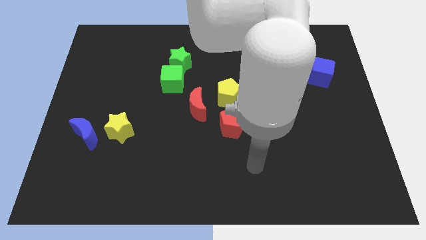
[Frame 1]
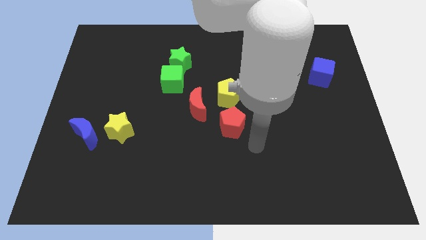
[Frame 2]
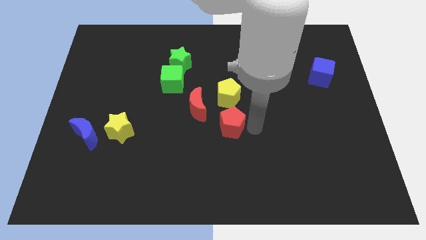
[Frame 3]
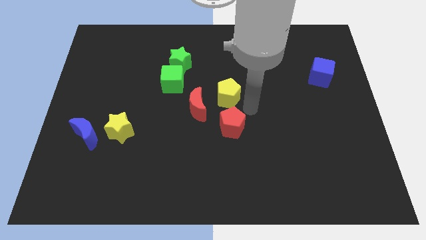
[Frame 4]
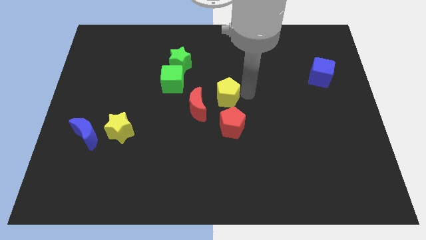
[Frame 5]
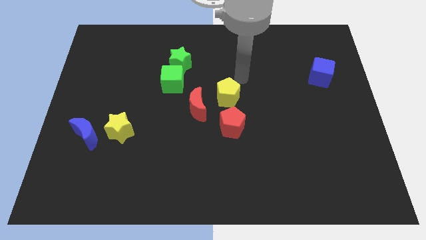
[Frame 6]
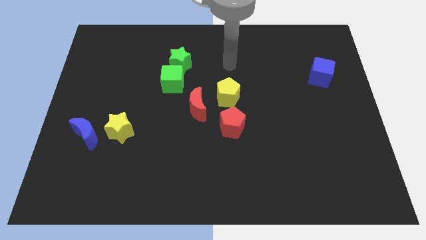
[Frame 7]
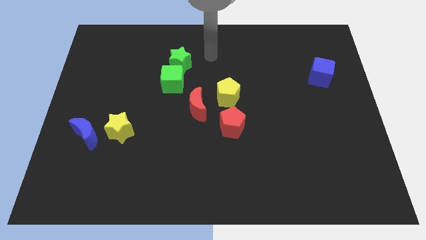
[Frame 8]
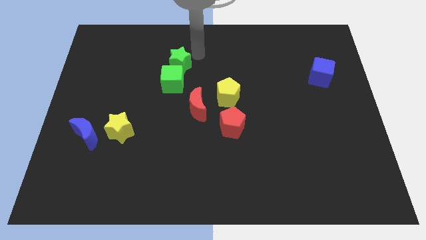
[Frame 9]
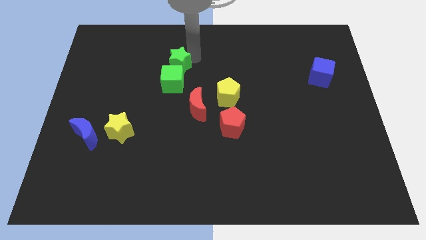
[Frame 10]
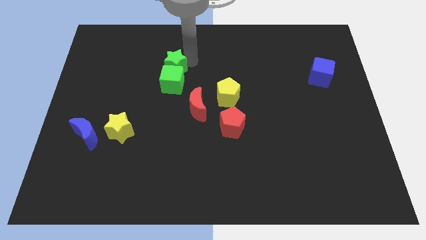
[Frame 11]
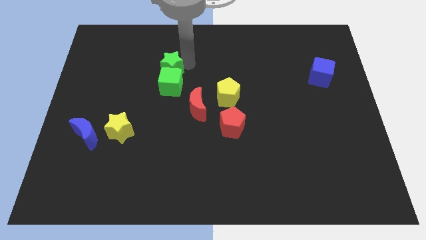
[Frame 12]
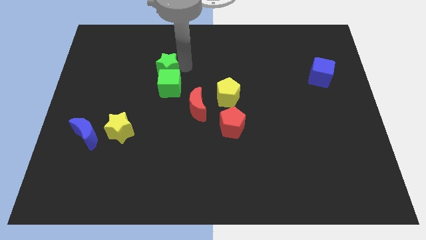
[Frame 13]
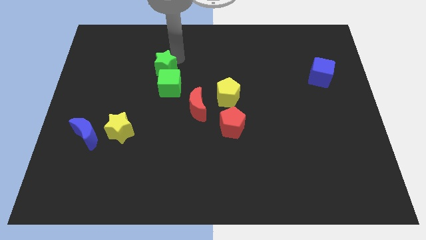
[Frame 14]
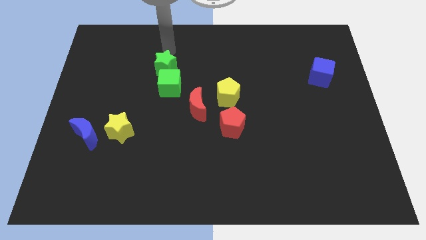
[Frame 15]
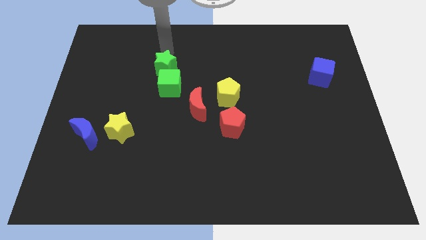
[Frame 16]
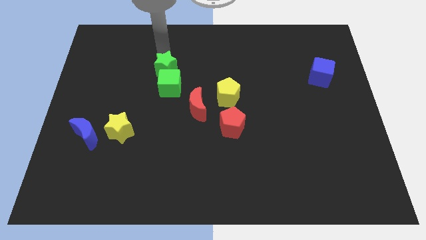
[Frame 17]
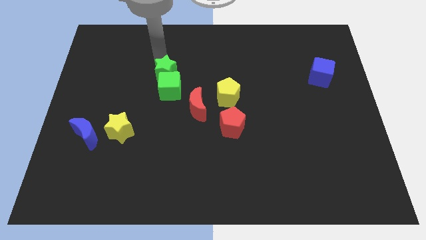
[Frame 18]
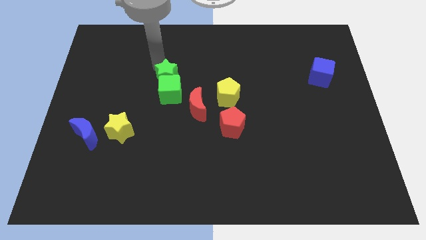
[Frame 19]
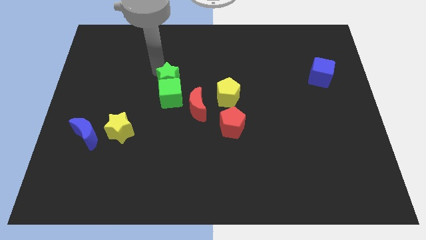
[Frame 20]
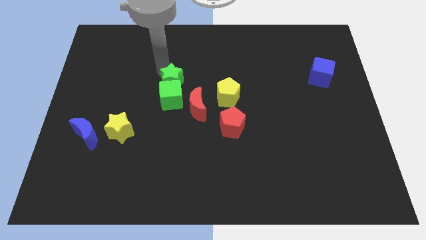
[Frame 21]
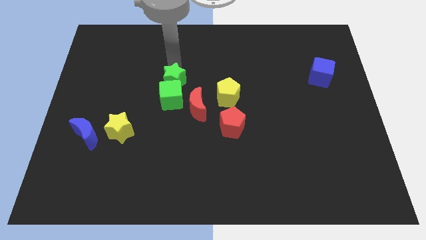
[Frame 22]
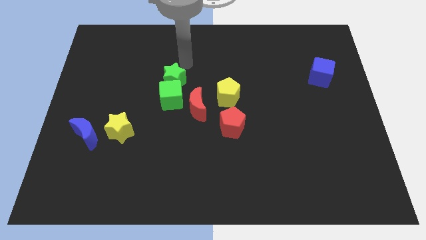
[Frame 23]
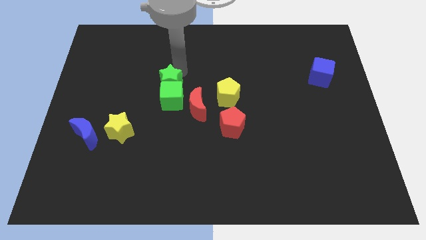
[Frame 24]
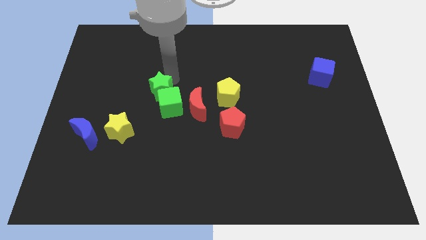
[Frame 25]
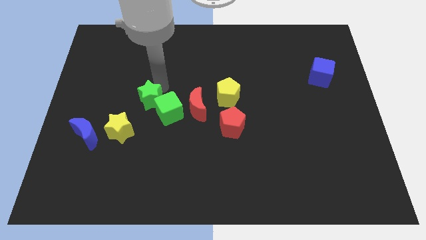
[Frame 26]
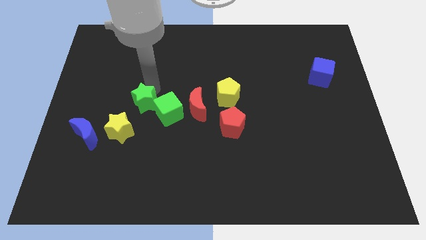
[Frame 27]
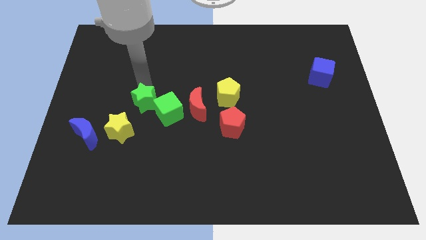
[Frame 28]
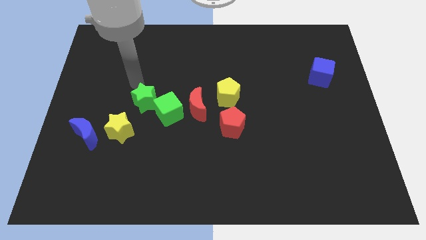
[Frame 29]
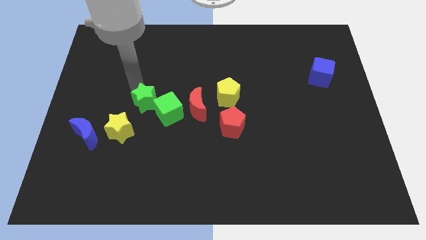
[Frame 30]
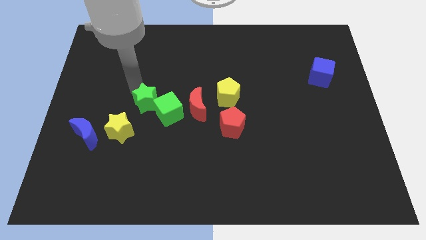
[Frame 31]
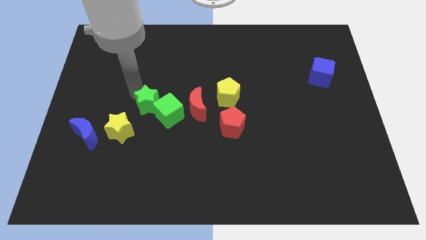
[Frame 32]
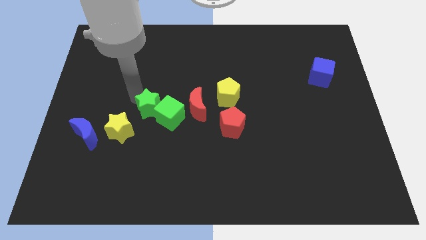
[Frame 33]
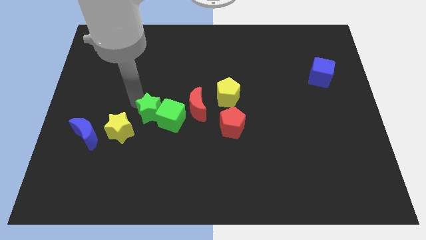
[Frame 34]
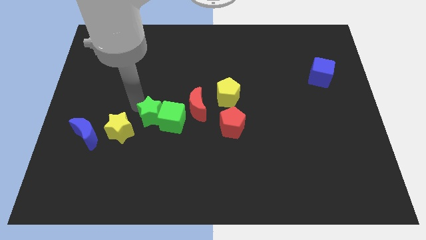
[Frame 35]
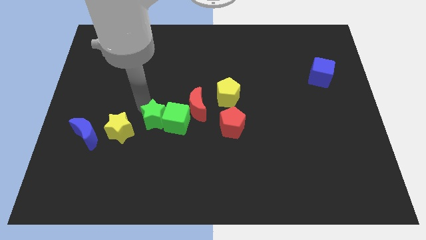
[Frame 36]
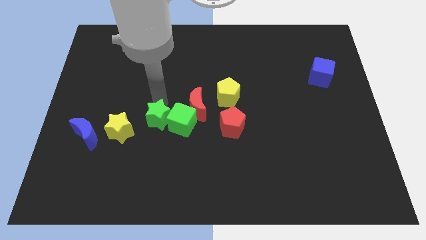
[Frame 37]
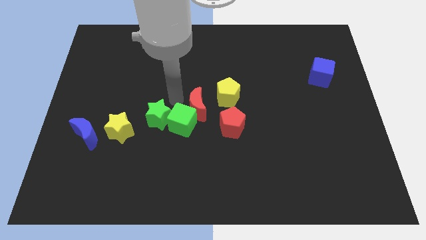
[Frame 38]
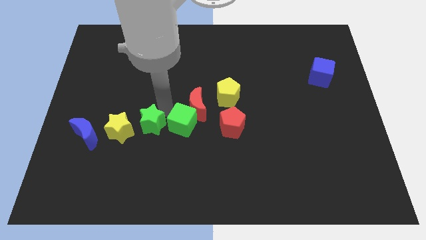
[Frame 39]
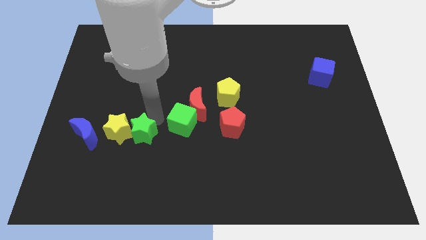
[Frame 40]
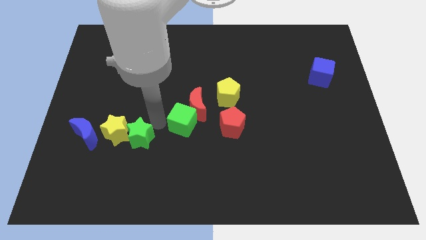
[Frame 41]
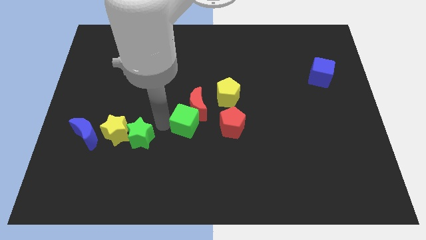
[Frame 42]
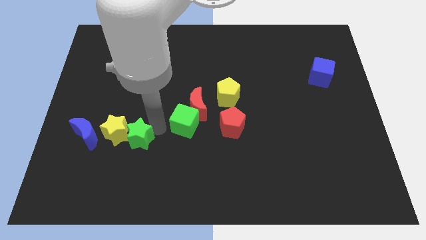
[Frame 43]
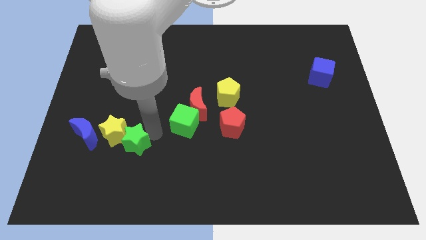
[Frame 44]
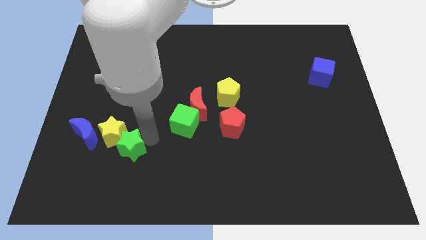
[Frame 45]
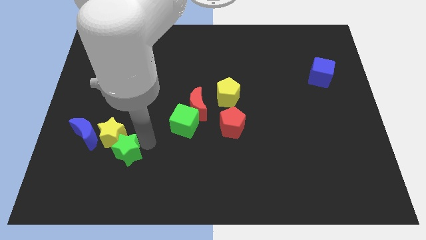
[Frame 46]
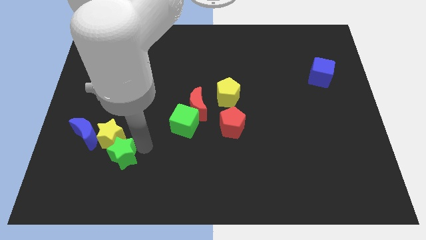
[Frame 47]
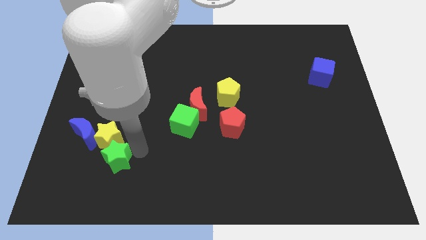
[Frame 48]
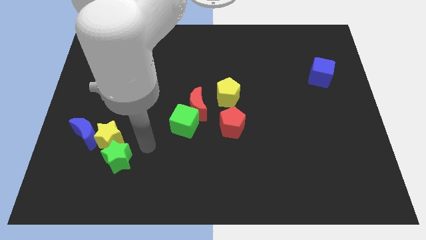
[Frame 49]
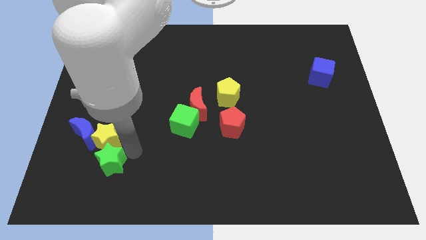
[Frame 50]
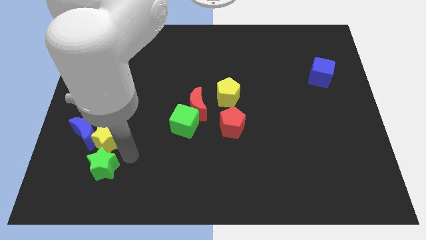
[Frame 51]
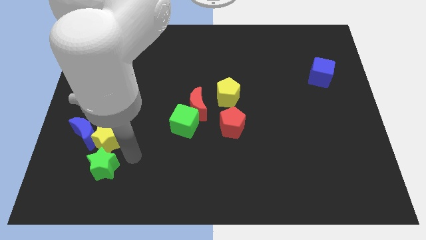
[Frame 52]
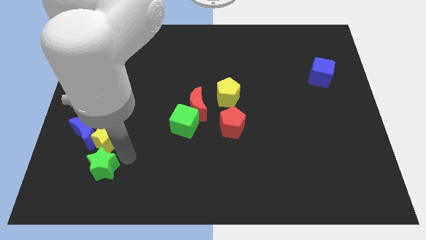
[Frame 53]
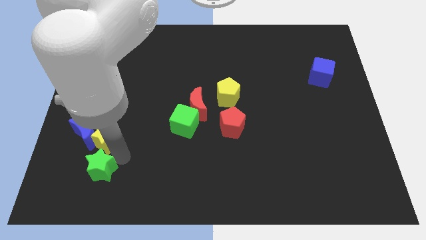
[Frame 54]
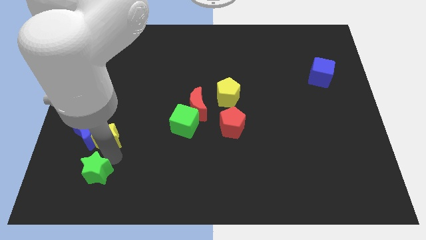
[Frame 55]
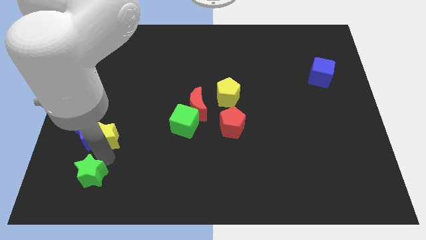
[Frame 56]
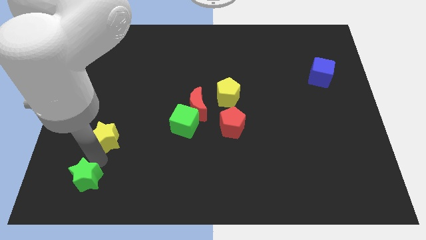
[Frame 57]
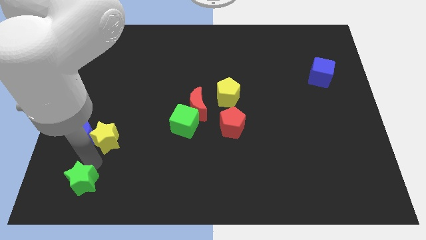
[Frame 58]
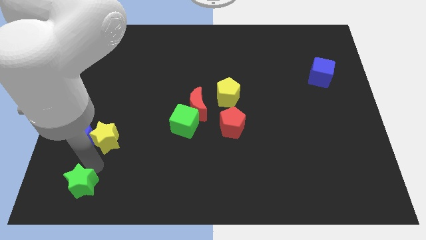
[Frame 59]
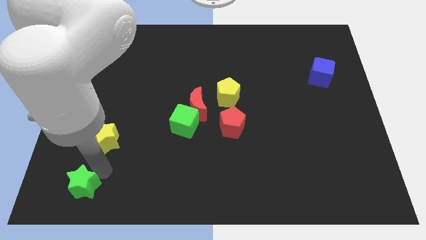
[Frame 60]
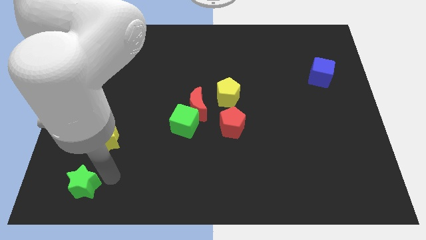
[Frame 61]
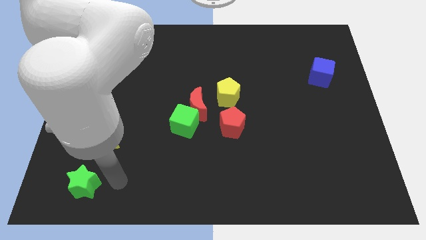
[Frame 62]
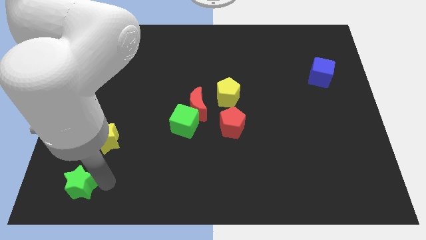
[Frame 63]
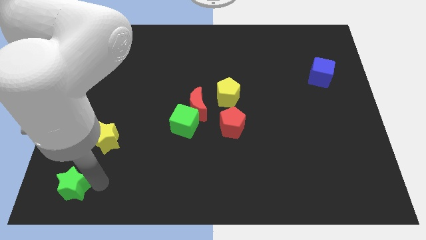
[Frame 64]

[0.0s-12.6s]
slide the green star to the bottom left of the board
